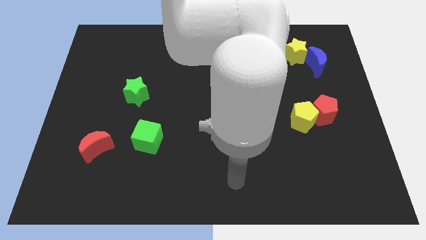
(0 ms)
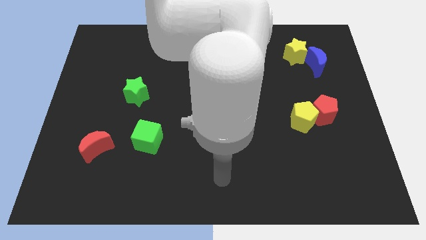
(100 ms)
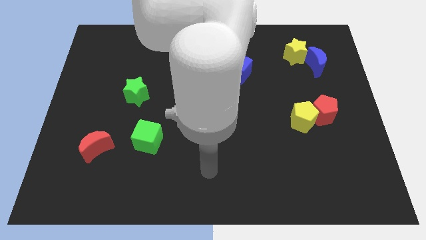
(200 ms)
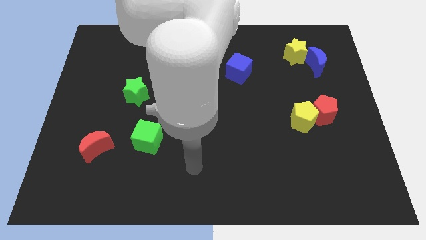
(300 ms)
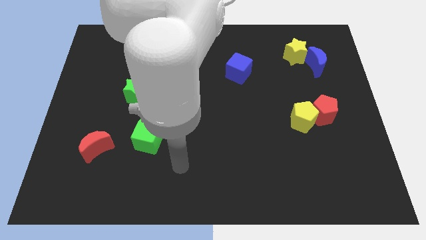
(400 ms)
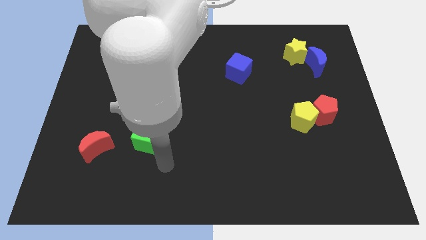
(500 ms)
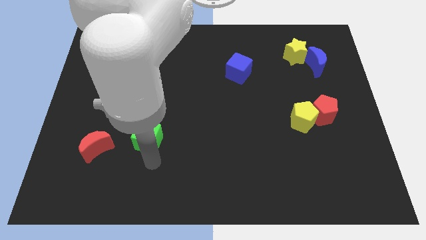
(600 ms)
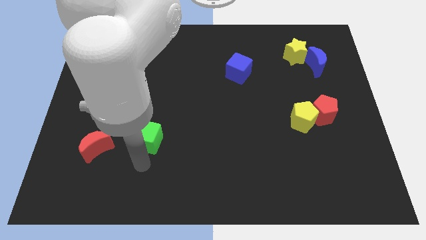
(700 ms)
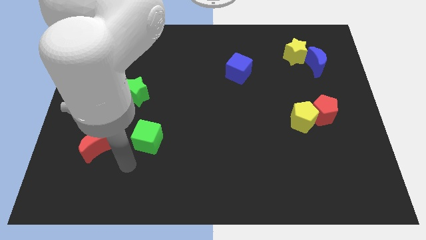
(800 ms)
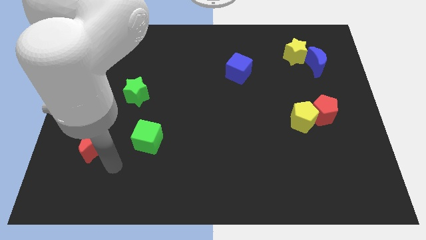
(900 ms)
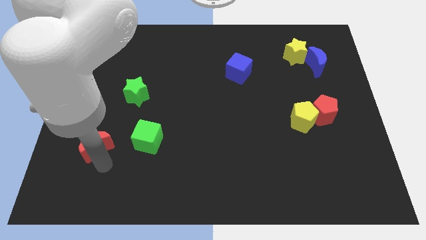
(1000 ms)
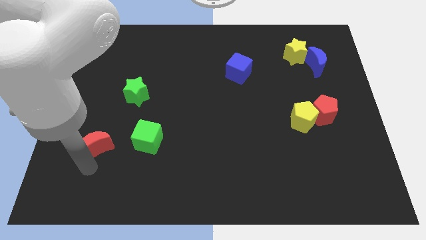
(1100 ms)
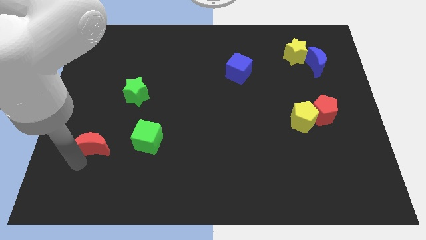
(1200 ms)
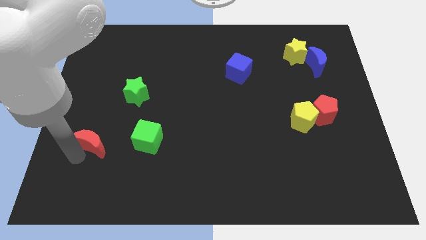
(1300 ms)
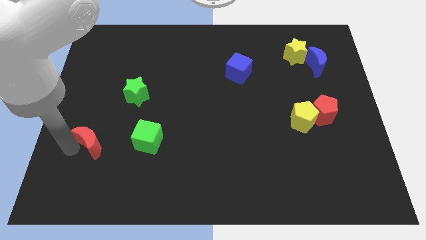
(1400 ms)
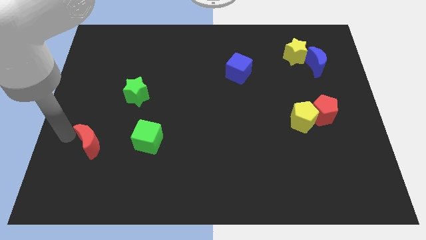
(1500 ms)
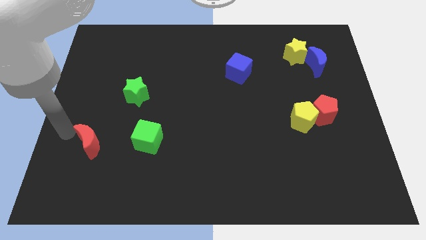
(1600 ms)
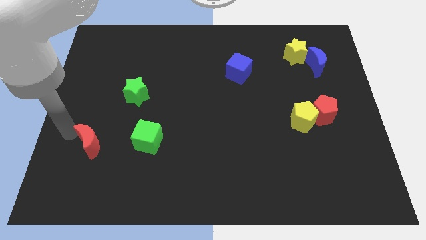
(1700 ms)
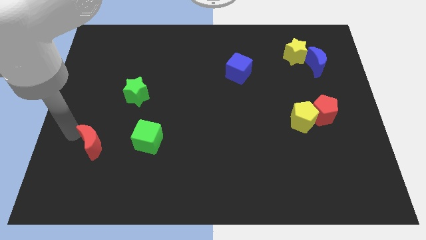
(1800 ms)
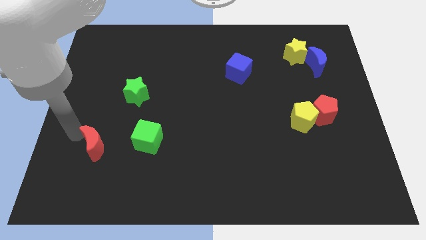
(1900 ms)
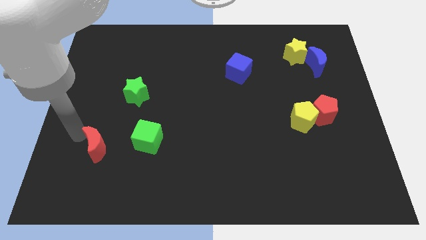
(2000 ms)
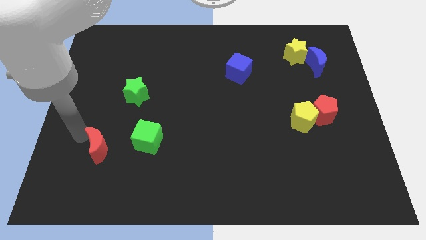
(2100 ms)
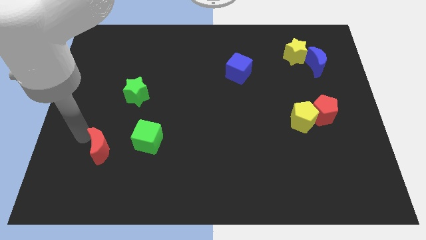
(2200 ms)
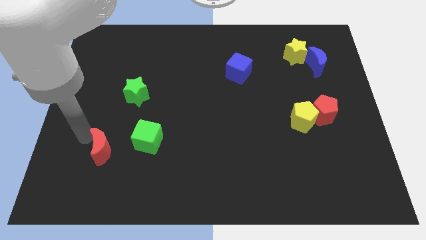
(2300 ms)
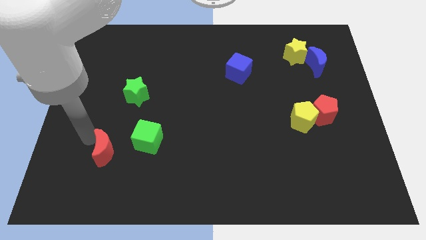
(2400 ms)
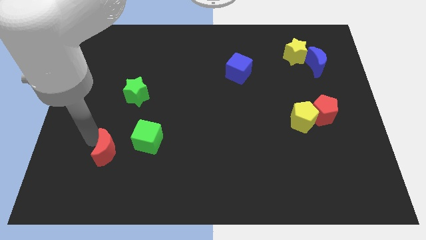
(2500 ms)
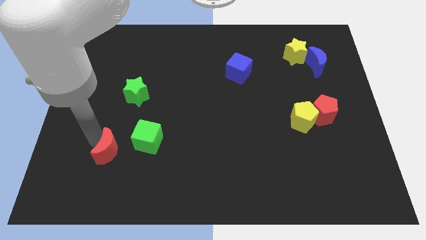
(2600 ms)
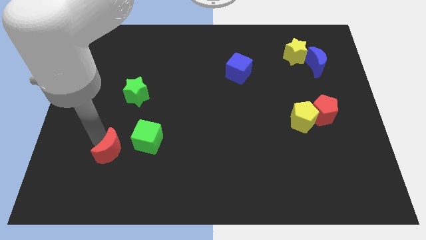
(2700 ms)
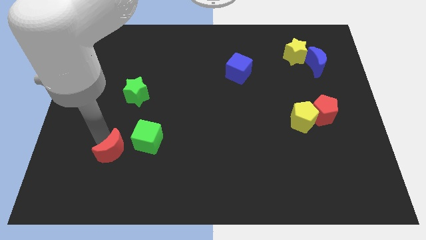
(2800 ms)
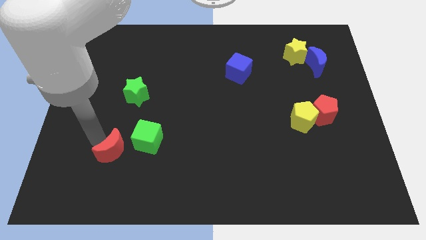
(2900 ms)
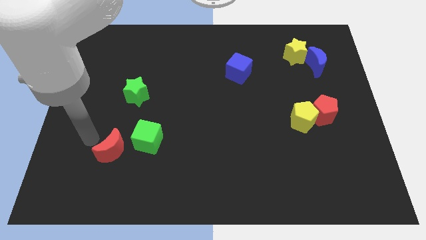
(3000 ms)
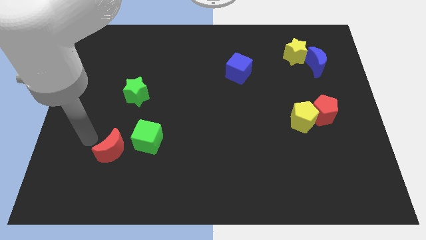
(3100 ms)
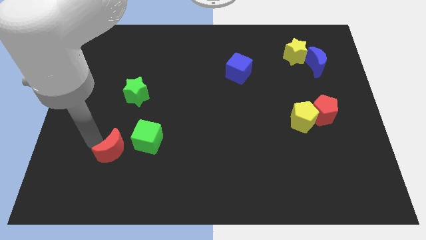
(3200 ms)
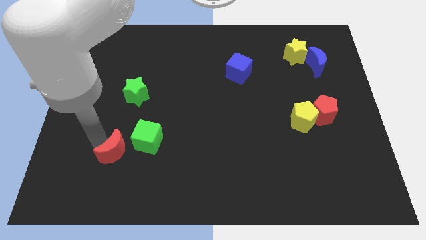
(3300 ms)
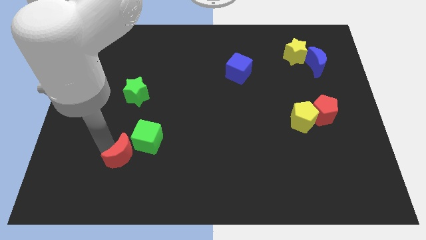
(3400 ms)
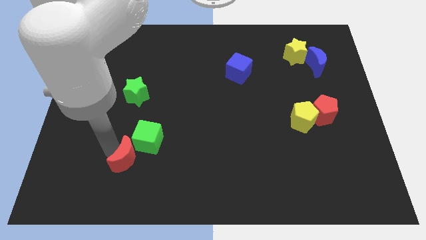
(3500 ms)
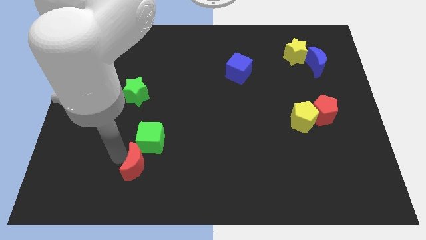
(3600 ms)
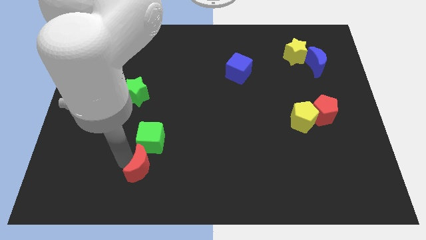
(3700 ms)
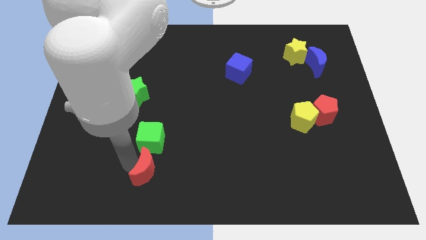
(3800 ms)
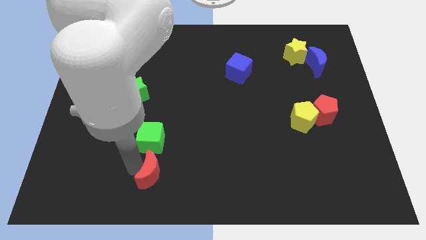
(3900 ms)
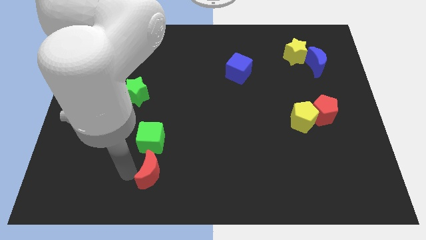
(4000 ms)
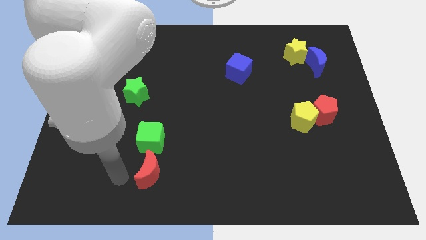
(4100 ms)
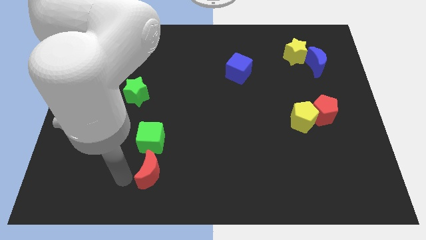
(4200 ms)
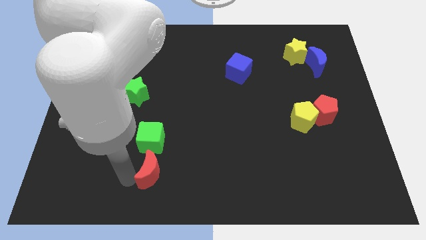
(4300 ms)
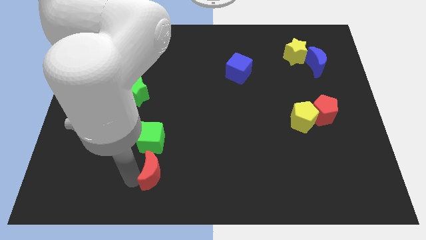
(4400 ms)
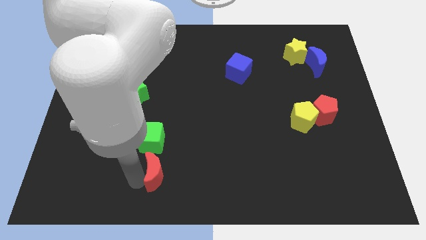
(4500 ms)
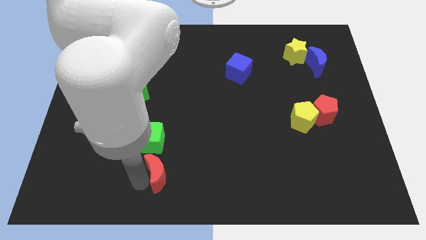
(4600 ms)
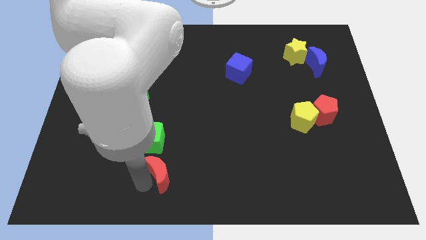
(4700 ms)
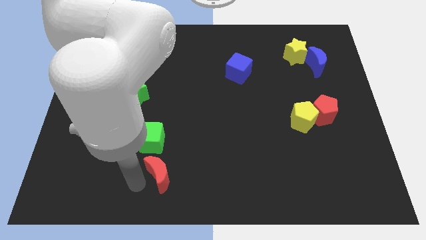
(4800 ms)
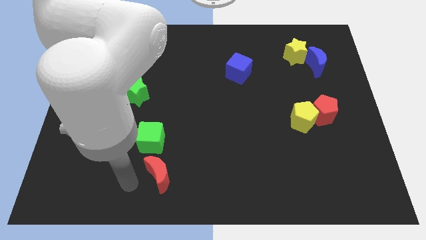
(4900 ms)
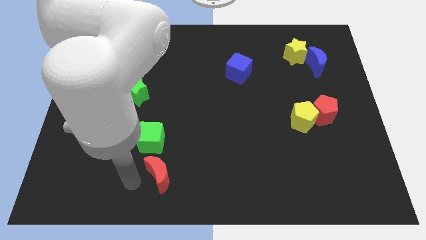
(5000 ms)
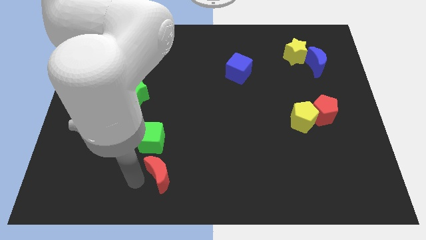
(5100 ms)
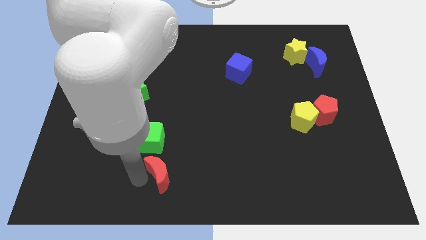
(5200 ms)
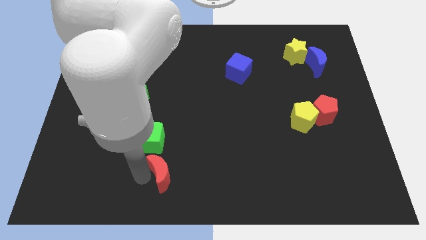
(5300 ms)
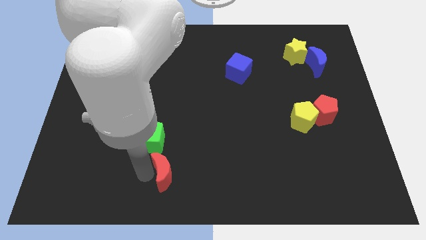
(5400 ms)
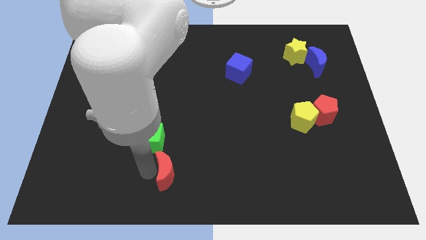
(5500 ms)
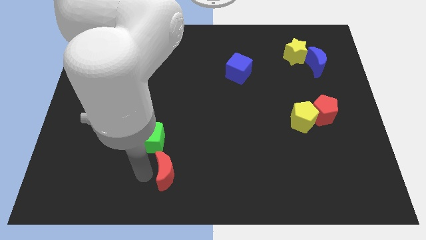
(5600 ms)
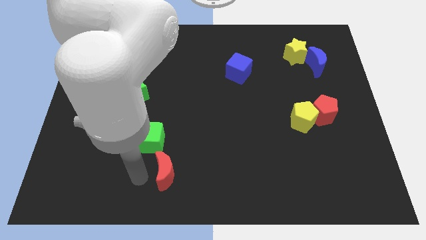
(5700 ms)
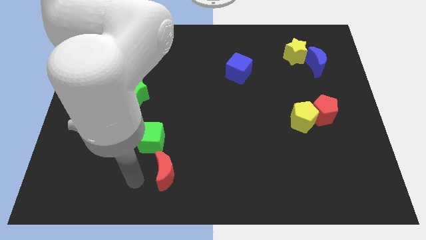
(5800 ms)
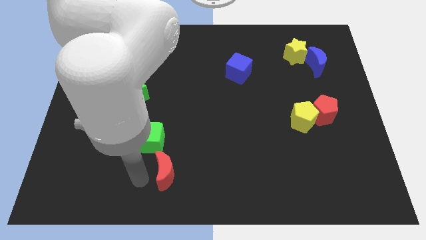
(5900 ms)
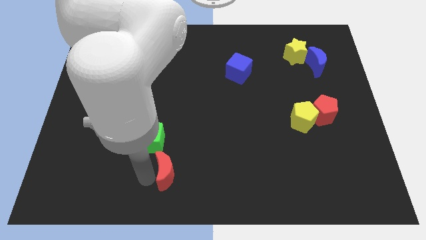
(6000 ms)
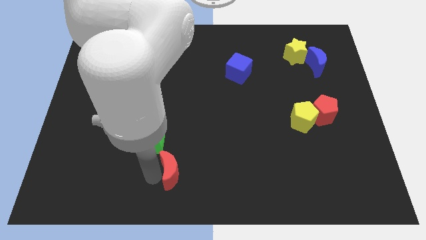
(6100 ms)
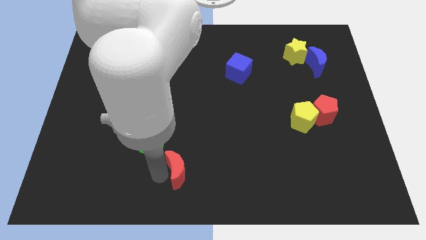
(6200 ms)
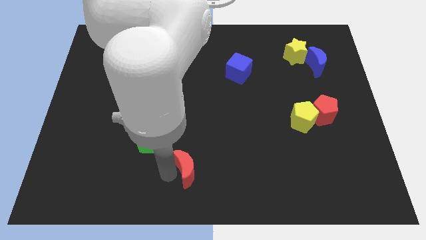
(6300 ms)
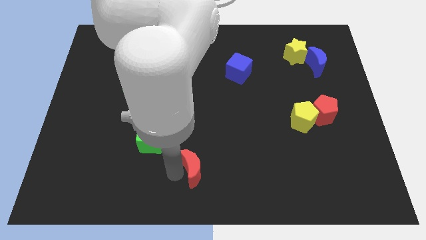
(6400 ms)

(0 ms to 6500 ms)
slide the red moon right

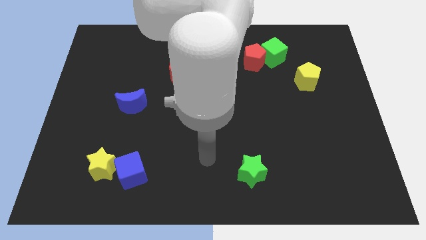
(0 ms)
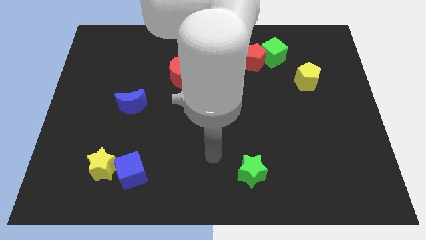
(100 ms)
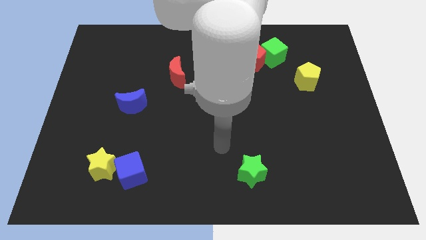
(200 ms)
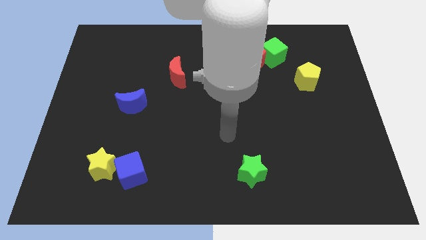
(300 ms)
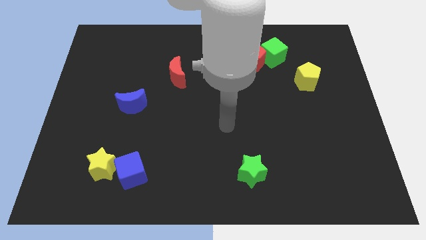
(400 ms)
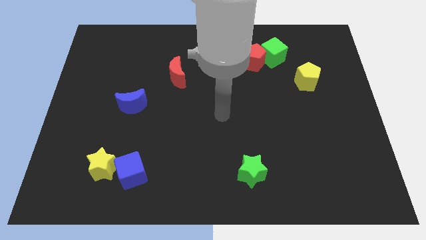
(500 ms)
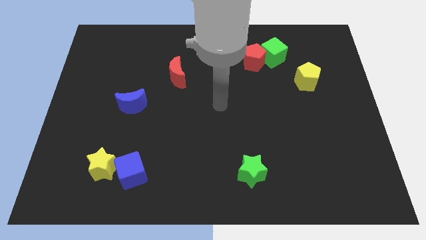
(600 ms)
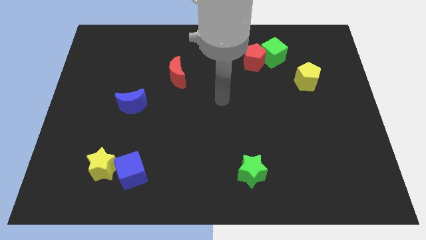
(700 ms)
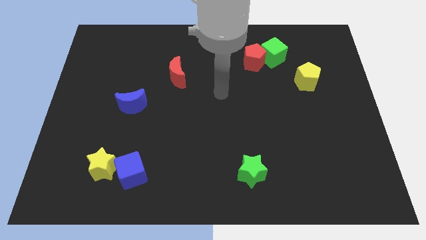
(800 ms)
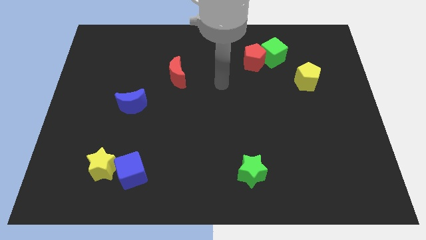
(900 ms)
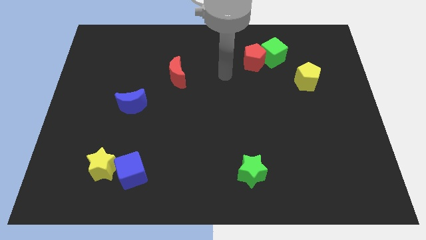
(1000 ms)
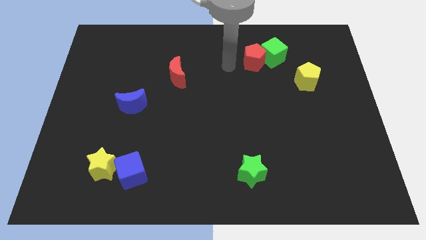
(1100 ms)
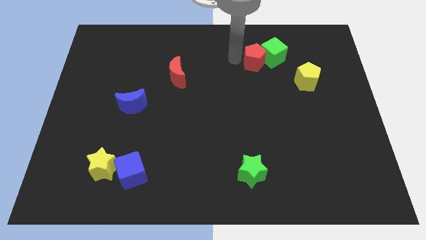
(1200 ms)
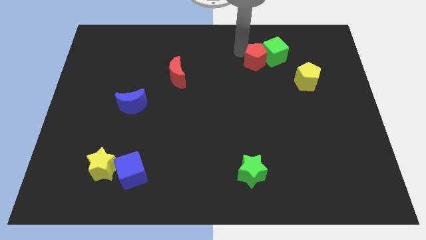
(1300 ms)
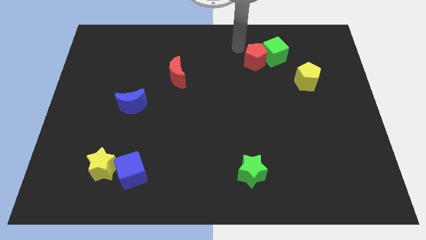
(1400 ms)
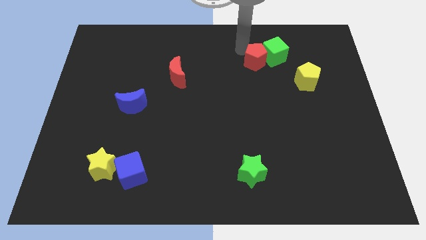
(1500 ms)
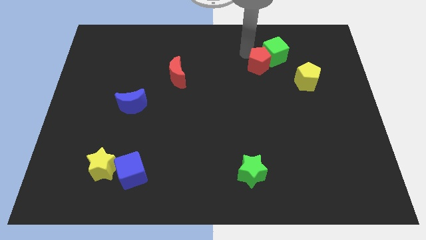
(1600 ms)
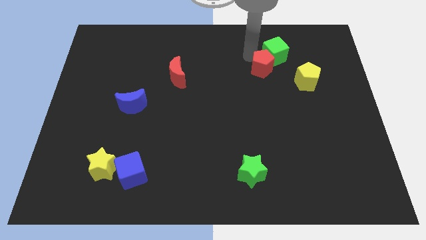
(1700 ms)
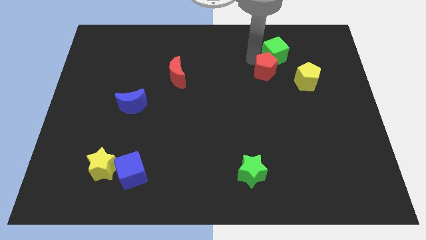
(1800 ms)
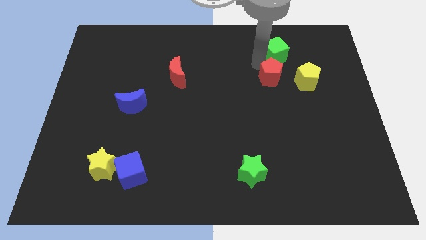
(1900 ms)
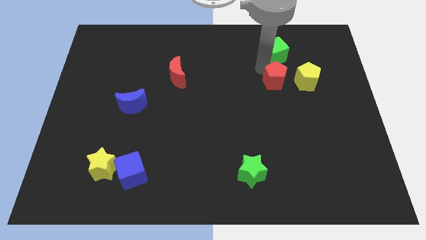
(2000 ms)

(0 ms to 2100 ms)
slightly push the red pentagon downwards and to the right
